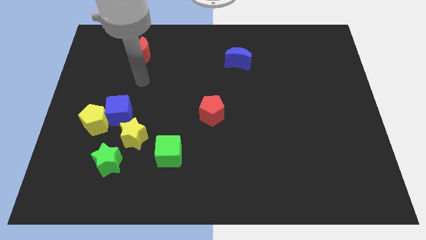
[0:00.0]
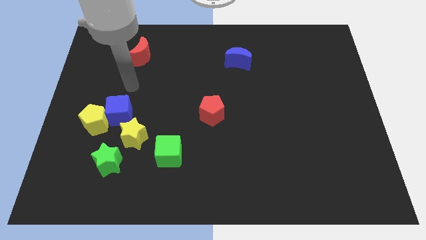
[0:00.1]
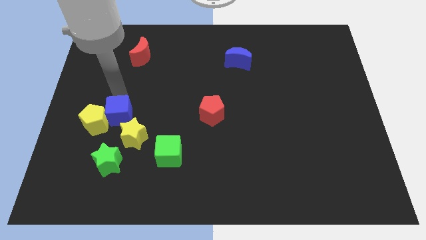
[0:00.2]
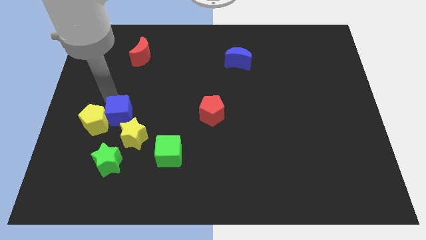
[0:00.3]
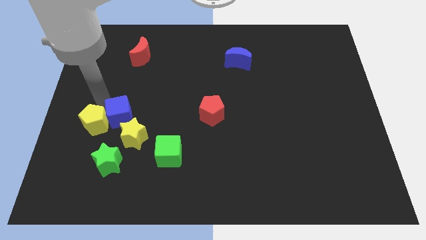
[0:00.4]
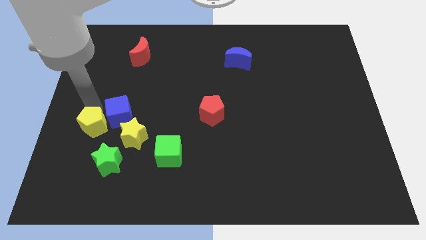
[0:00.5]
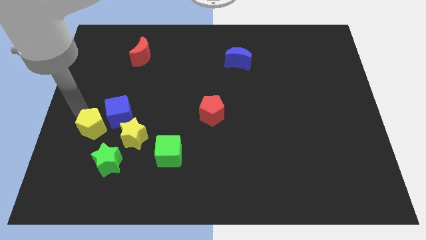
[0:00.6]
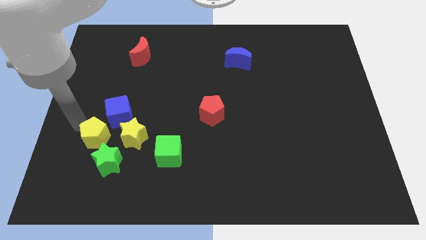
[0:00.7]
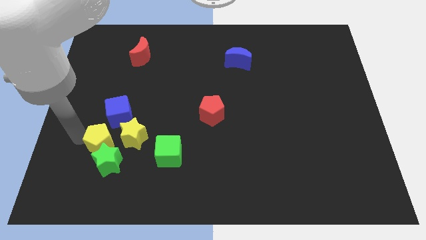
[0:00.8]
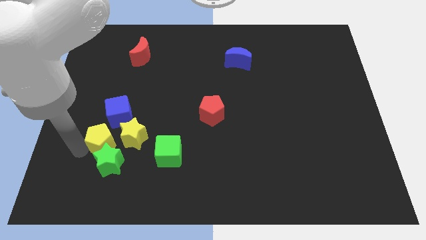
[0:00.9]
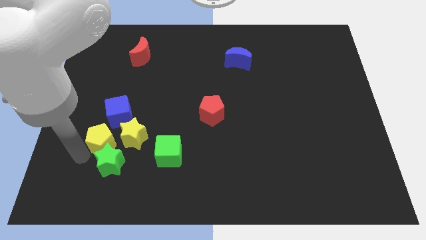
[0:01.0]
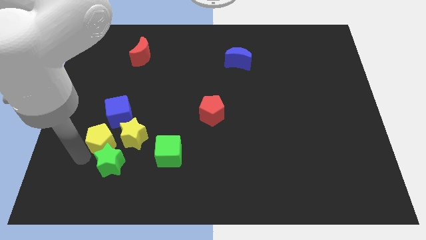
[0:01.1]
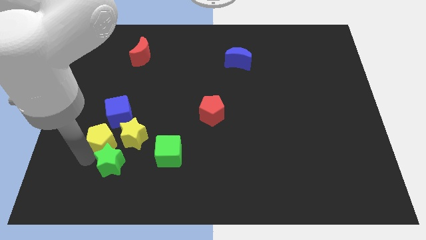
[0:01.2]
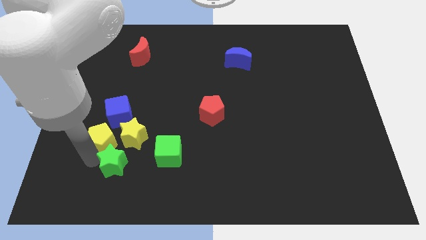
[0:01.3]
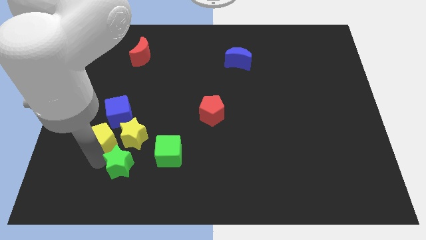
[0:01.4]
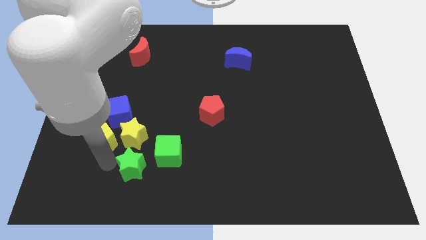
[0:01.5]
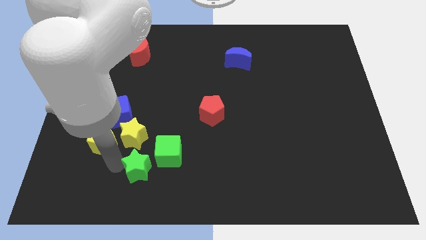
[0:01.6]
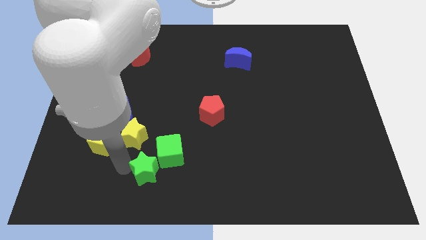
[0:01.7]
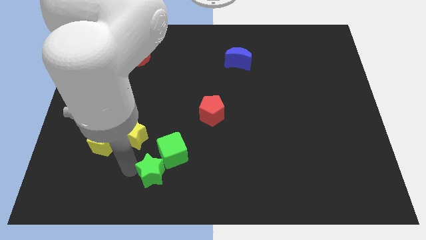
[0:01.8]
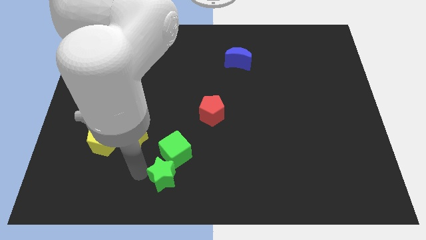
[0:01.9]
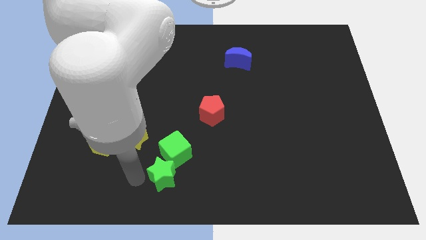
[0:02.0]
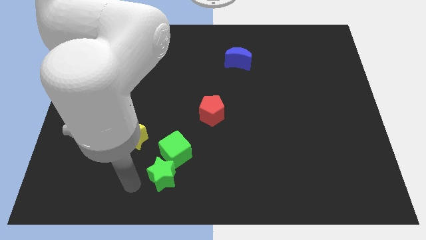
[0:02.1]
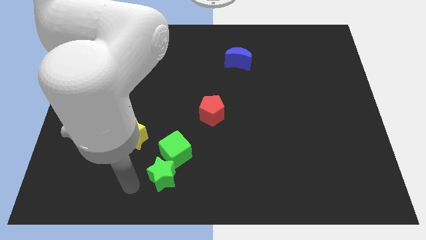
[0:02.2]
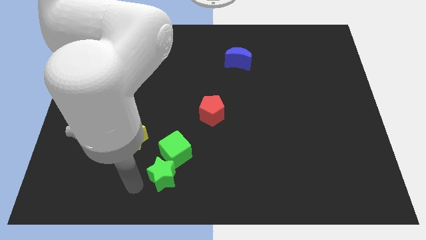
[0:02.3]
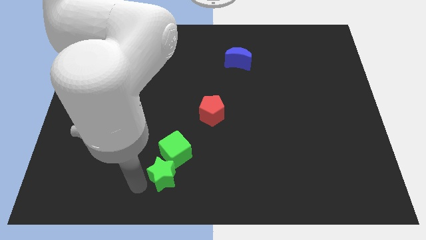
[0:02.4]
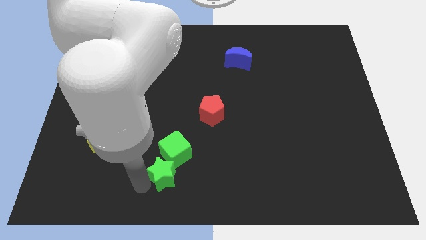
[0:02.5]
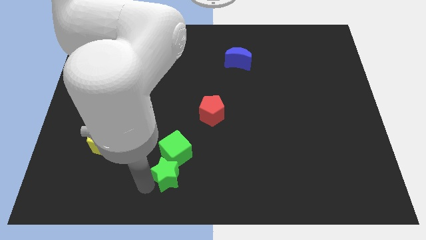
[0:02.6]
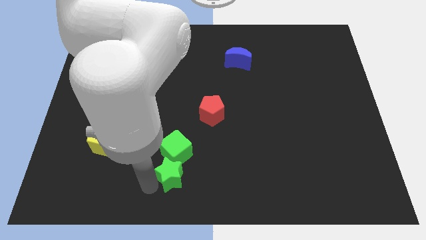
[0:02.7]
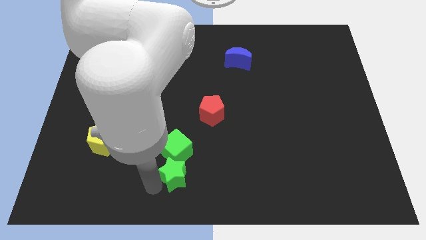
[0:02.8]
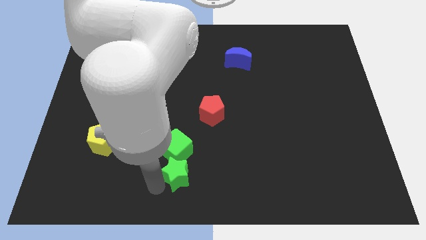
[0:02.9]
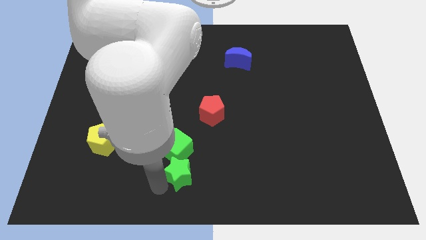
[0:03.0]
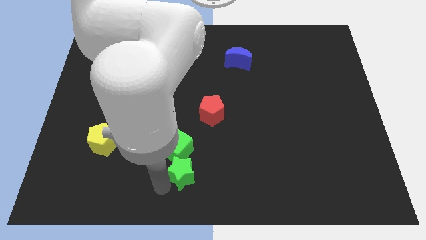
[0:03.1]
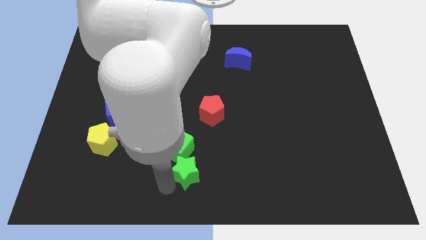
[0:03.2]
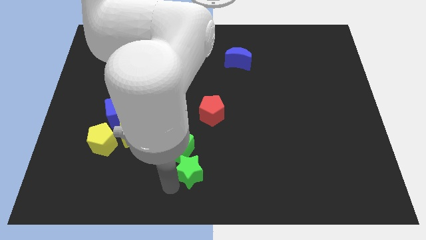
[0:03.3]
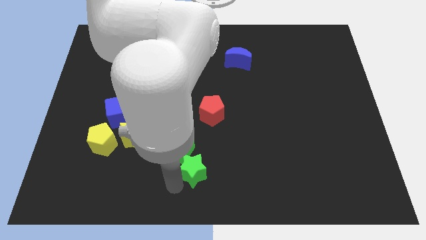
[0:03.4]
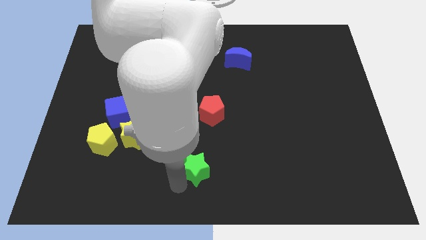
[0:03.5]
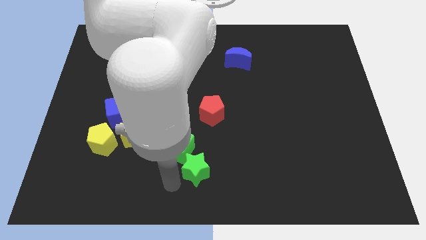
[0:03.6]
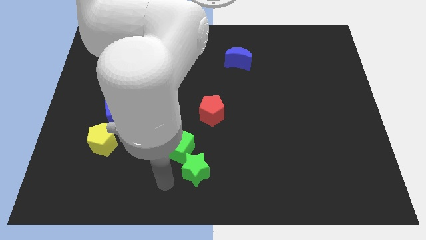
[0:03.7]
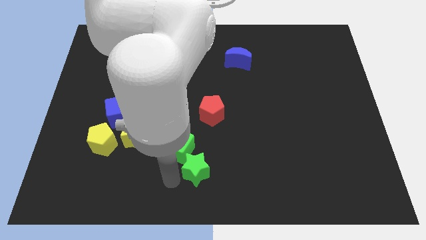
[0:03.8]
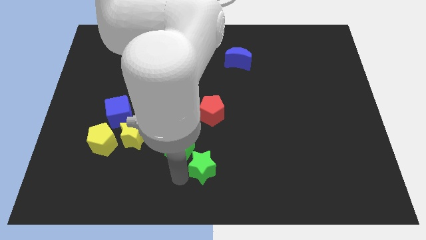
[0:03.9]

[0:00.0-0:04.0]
move the green star to the right

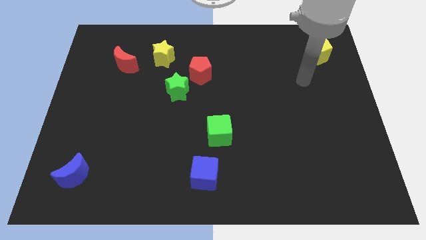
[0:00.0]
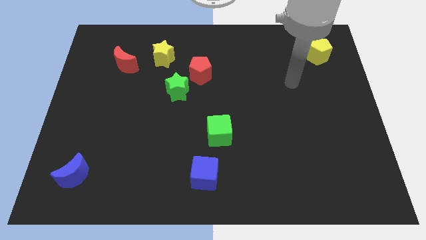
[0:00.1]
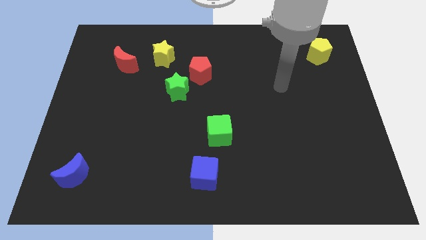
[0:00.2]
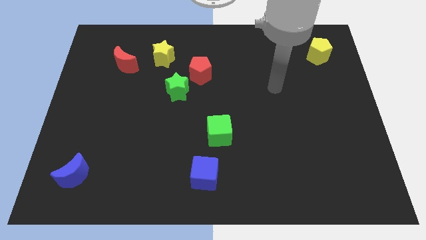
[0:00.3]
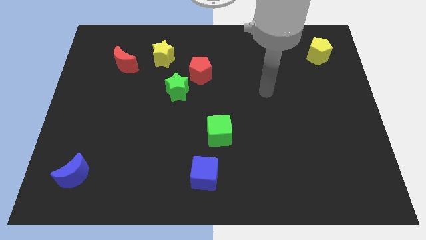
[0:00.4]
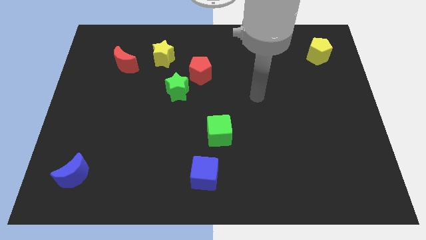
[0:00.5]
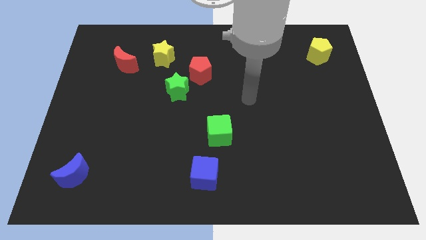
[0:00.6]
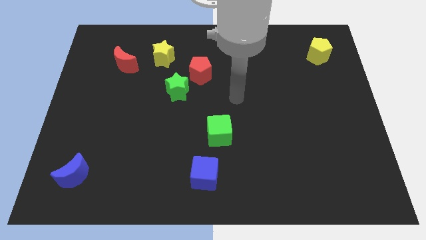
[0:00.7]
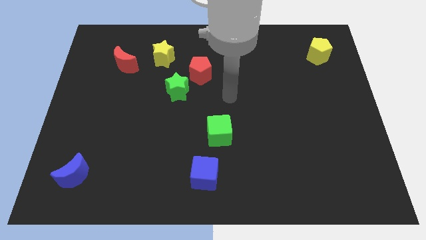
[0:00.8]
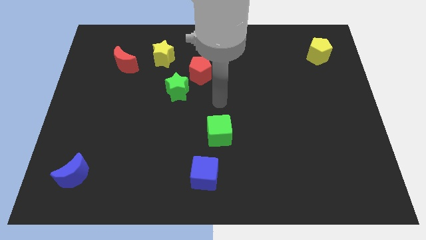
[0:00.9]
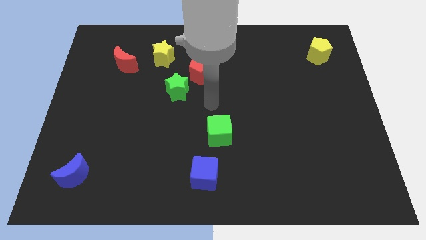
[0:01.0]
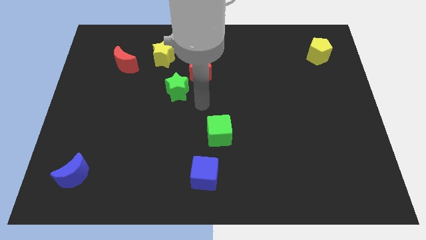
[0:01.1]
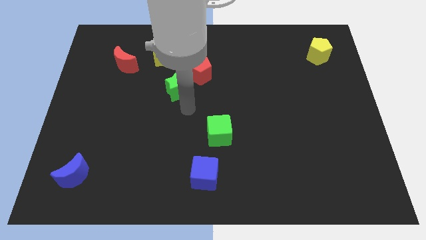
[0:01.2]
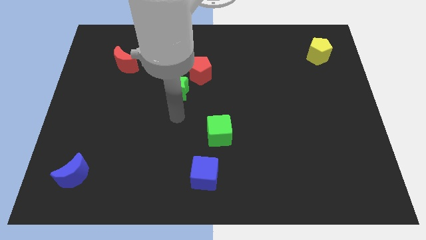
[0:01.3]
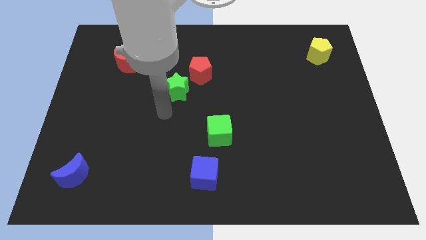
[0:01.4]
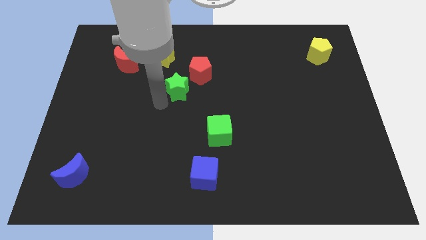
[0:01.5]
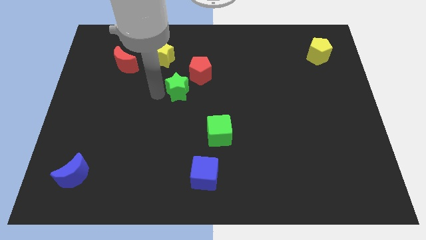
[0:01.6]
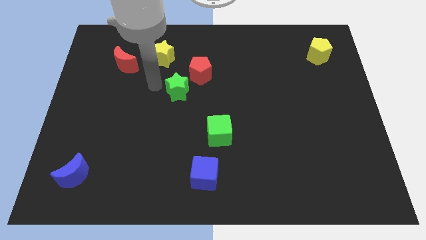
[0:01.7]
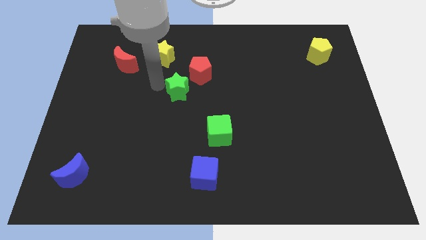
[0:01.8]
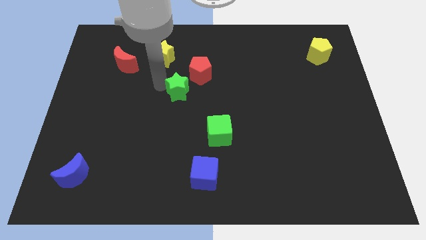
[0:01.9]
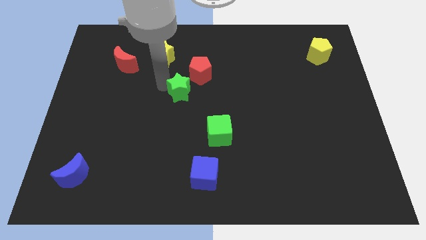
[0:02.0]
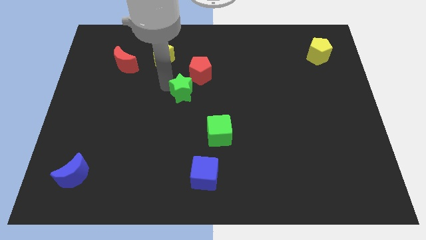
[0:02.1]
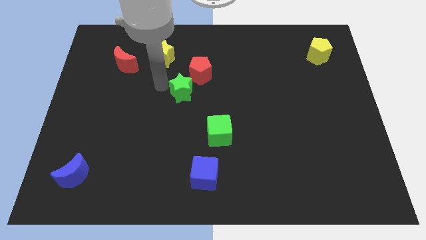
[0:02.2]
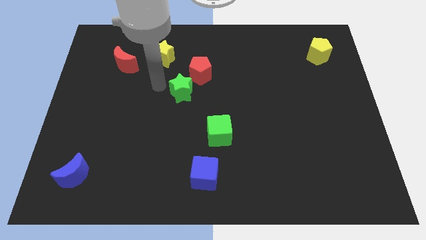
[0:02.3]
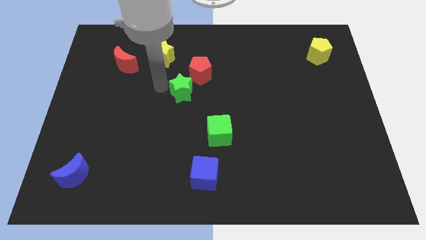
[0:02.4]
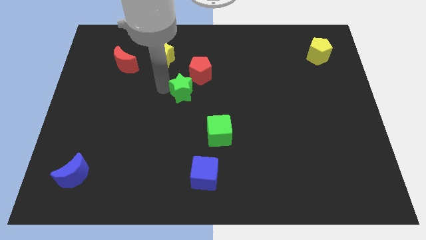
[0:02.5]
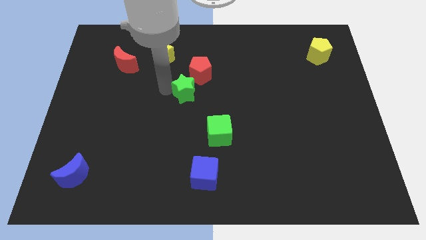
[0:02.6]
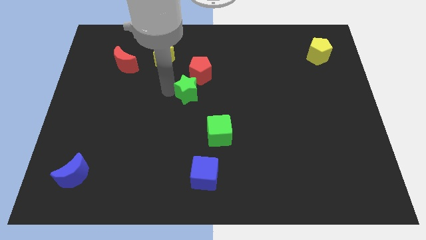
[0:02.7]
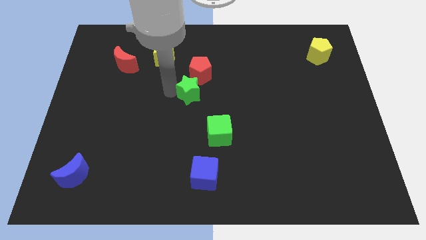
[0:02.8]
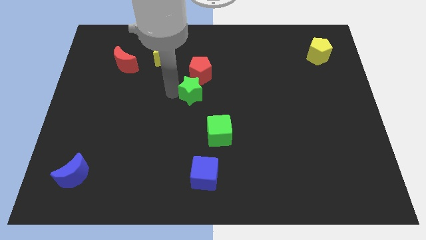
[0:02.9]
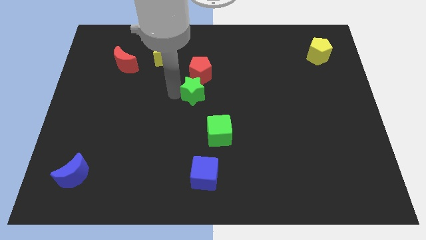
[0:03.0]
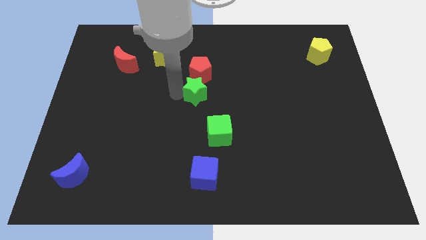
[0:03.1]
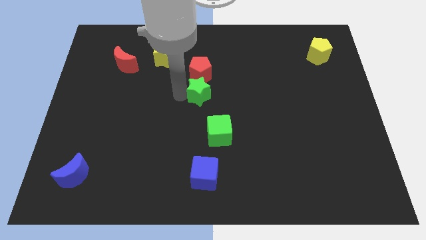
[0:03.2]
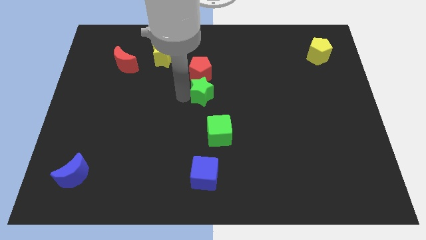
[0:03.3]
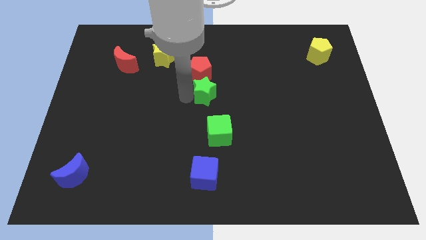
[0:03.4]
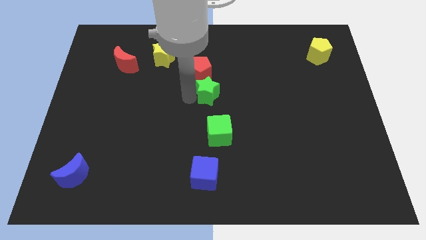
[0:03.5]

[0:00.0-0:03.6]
push the green star a little to the right

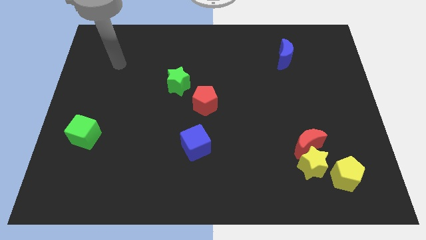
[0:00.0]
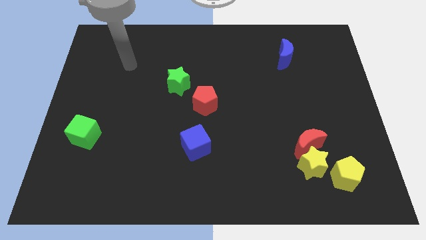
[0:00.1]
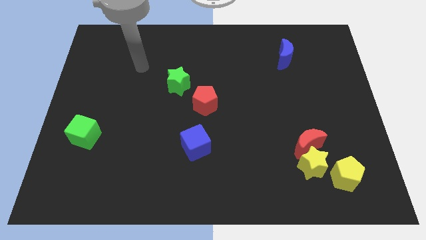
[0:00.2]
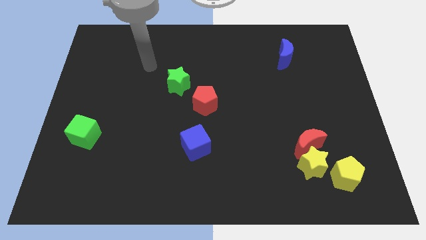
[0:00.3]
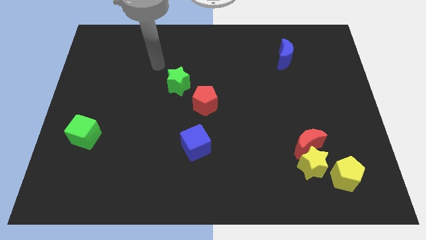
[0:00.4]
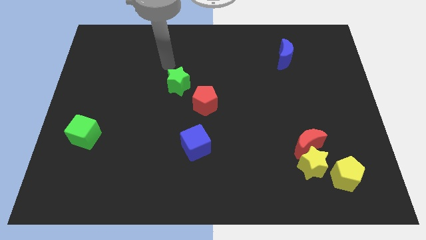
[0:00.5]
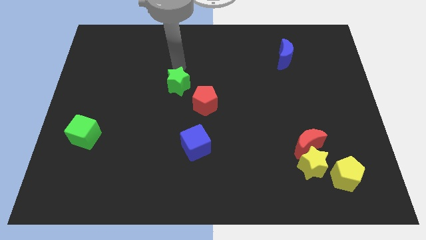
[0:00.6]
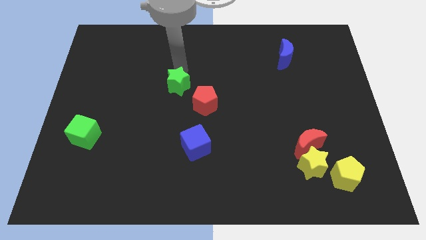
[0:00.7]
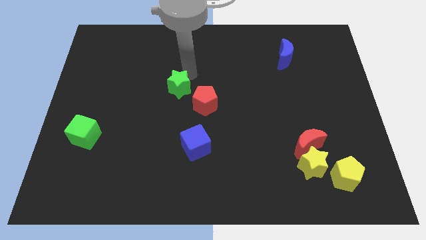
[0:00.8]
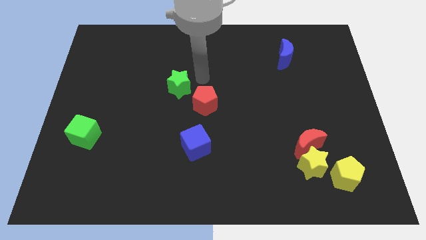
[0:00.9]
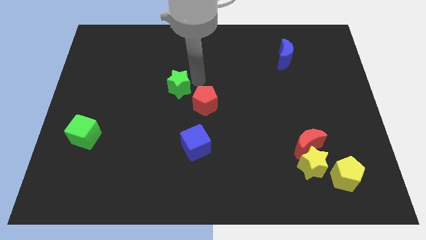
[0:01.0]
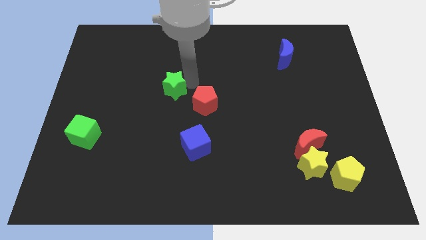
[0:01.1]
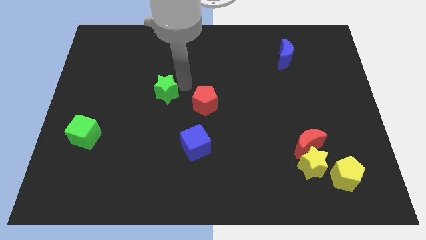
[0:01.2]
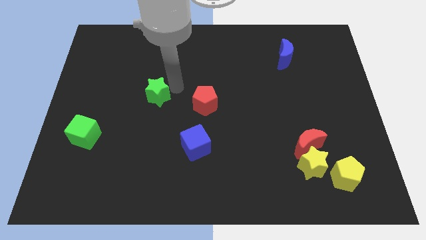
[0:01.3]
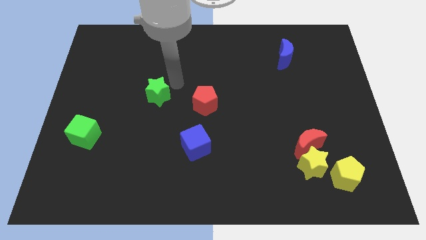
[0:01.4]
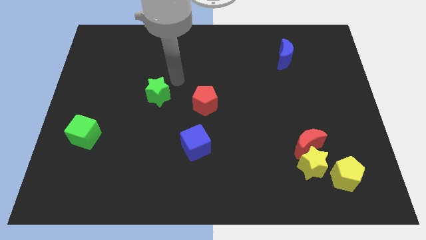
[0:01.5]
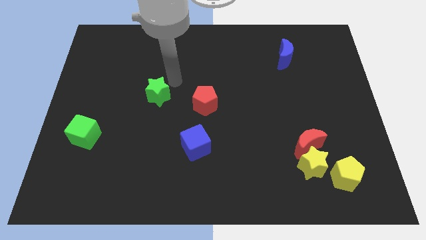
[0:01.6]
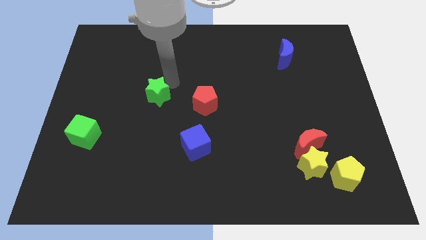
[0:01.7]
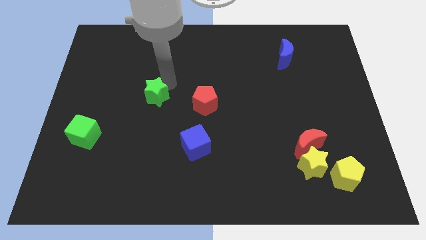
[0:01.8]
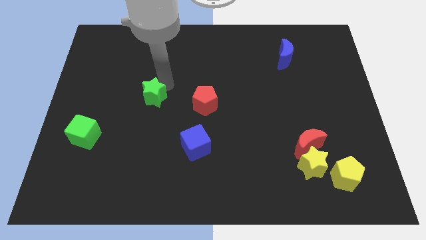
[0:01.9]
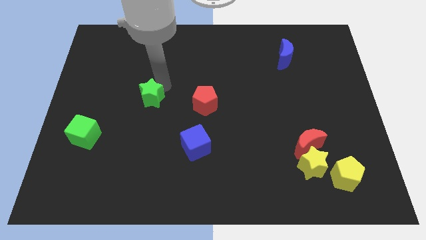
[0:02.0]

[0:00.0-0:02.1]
move the green star a bit down and then left
